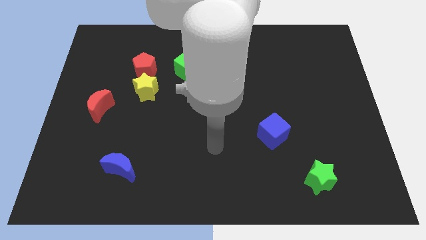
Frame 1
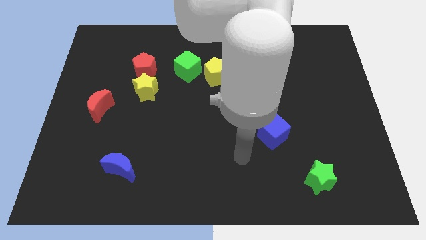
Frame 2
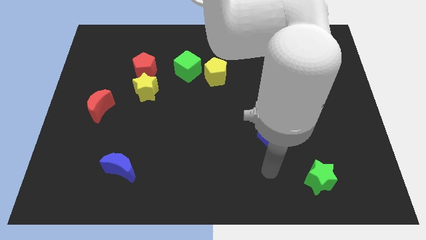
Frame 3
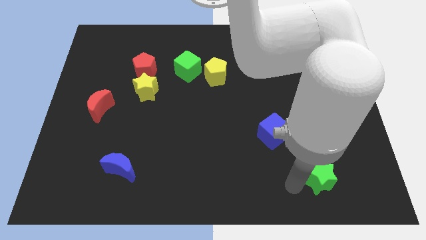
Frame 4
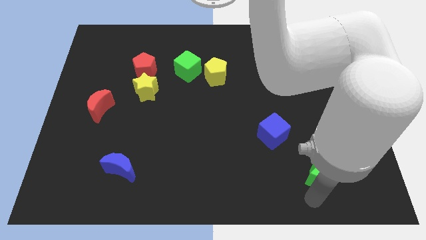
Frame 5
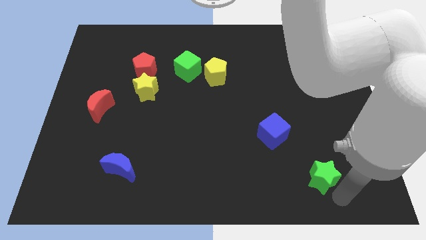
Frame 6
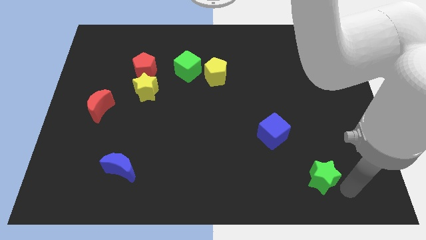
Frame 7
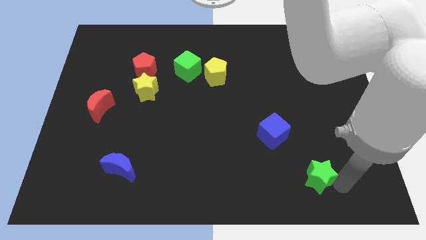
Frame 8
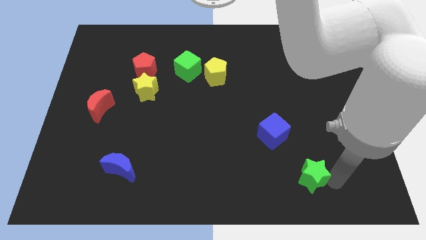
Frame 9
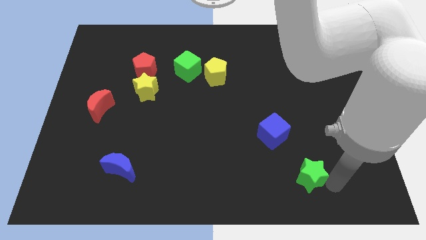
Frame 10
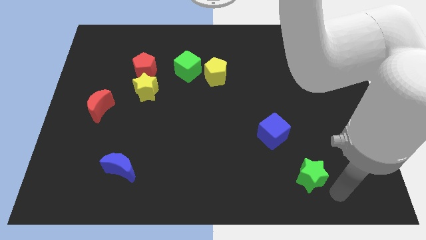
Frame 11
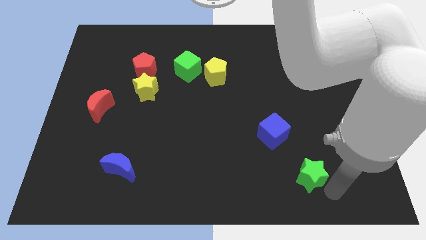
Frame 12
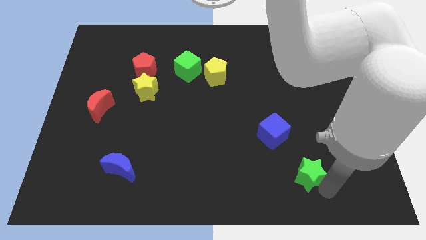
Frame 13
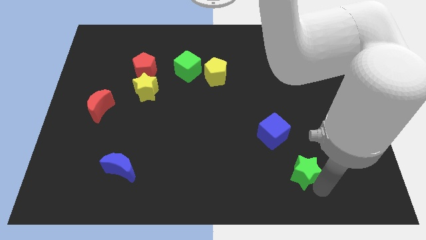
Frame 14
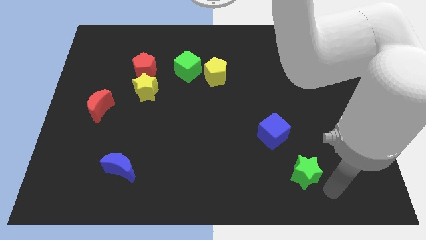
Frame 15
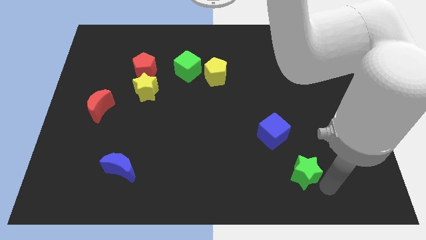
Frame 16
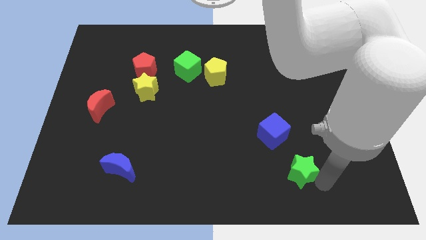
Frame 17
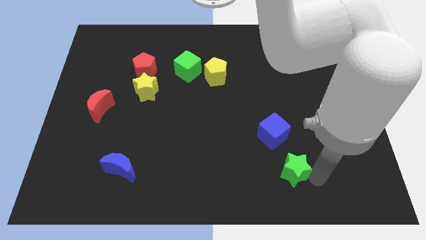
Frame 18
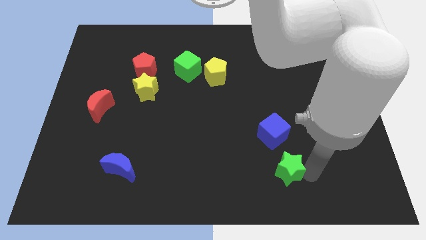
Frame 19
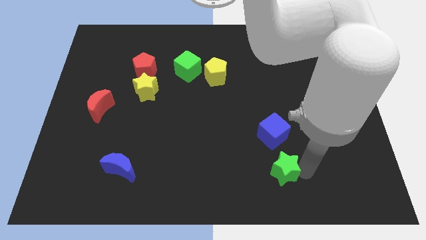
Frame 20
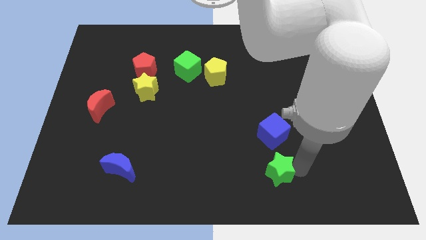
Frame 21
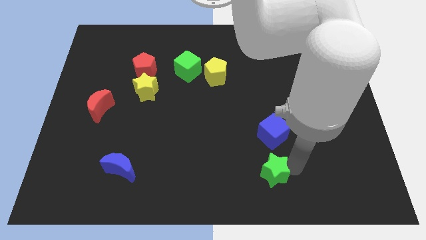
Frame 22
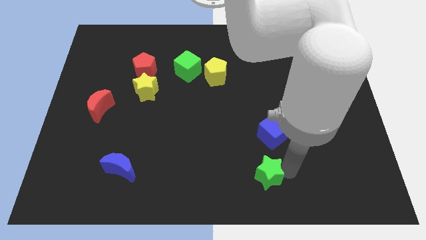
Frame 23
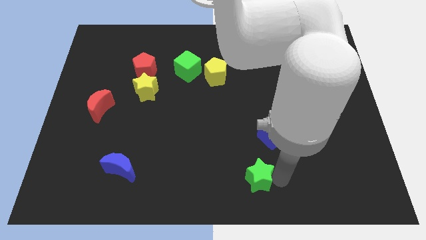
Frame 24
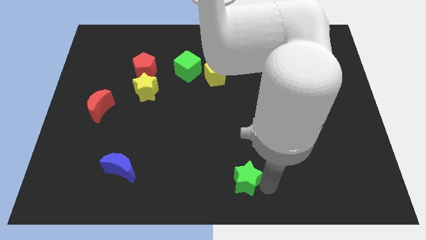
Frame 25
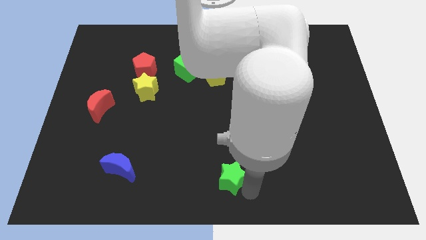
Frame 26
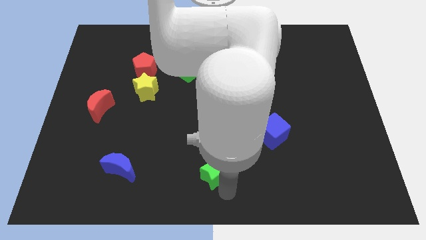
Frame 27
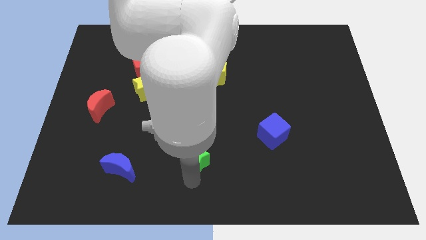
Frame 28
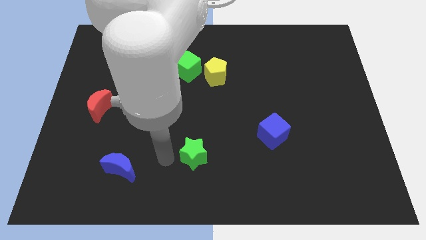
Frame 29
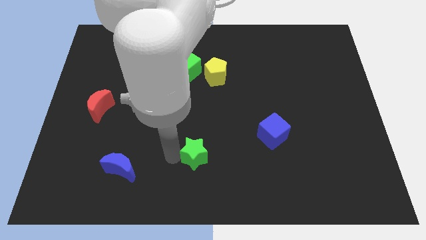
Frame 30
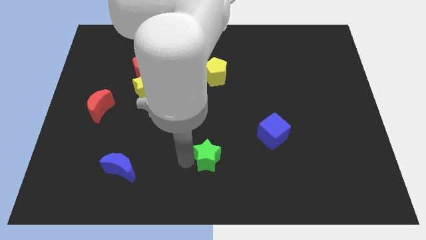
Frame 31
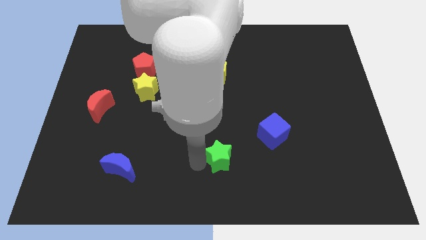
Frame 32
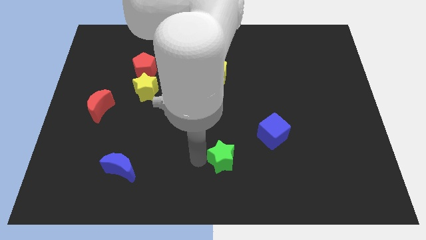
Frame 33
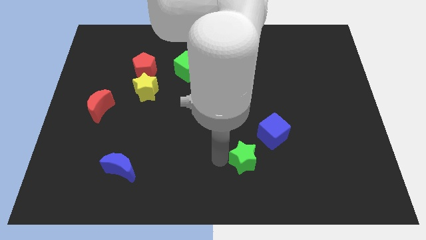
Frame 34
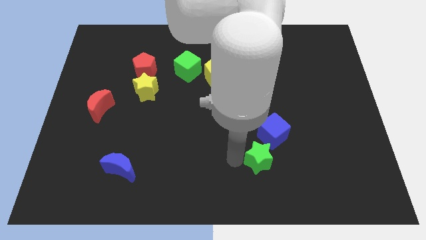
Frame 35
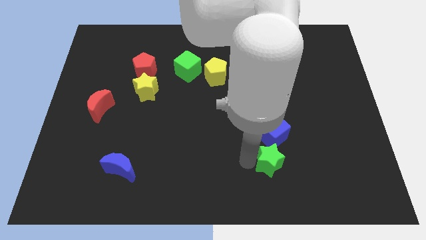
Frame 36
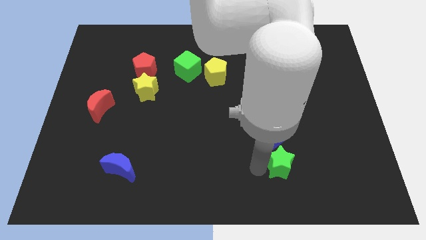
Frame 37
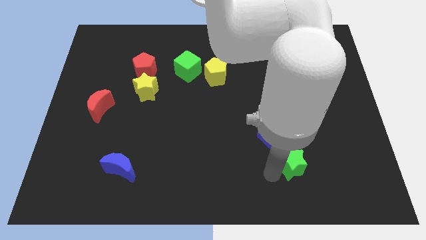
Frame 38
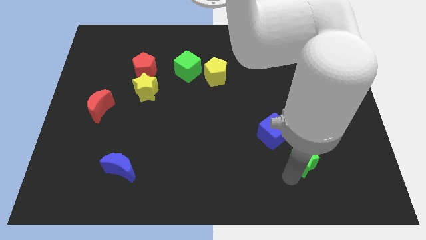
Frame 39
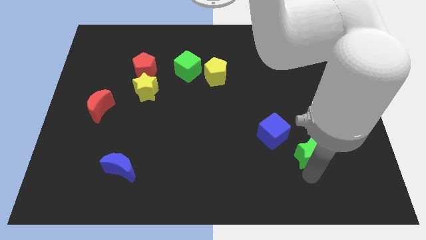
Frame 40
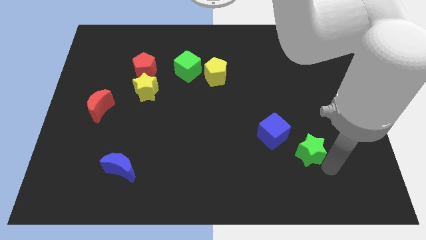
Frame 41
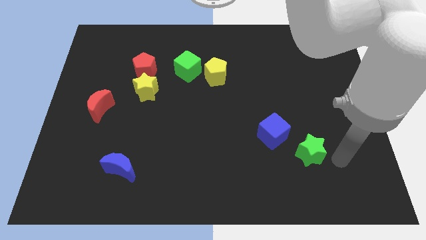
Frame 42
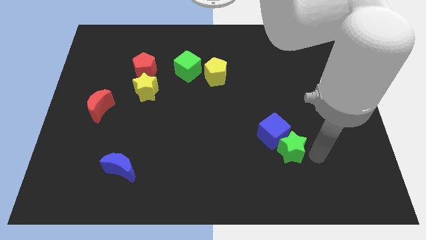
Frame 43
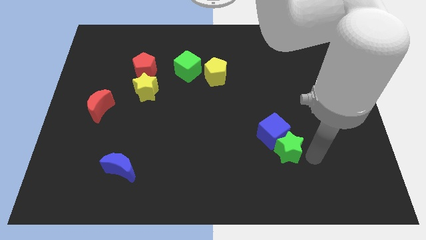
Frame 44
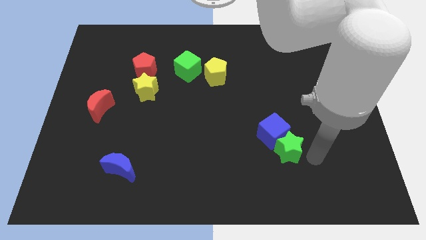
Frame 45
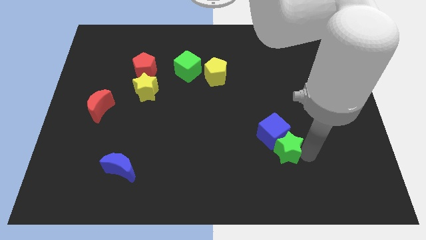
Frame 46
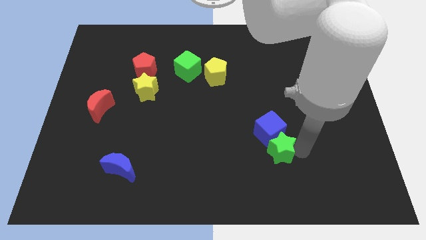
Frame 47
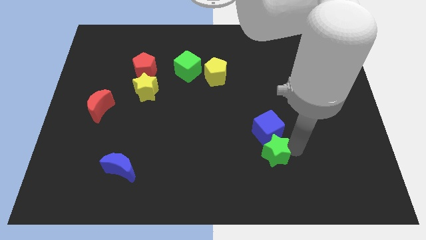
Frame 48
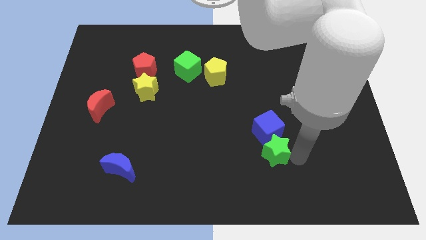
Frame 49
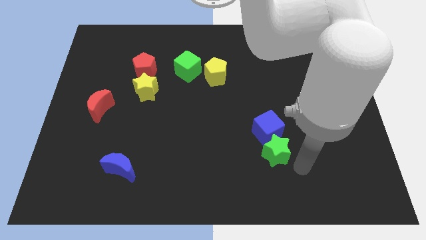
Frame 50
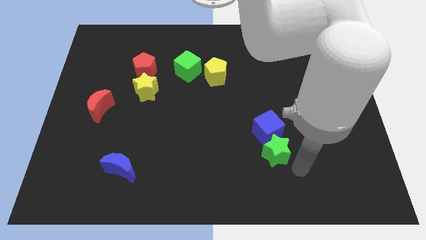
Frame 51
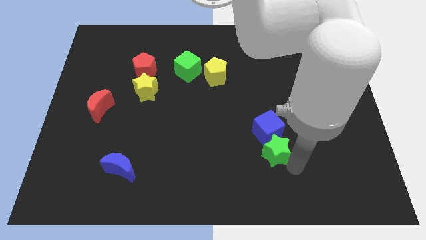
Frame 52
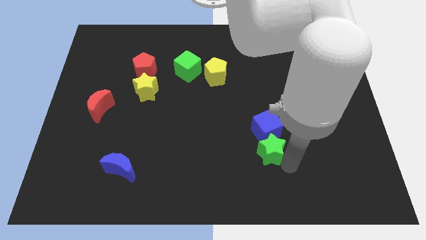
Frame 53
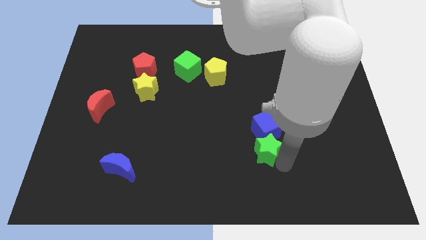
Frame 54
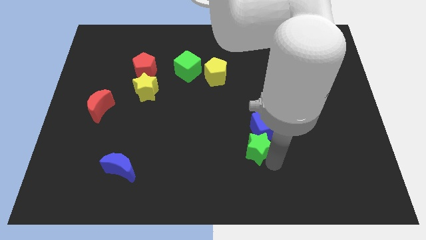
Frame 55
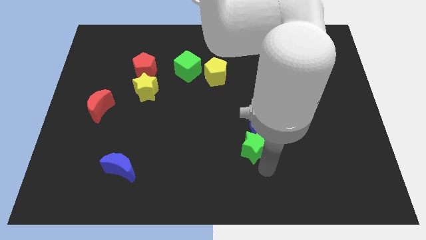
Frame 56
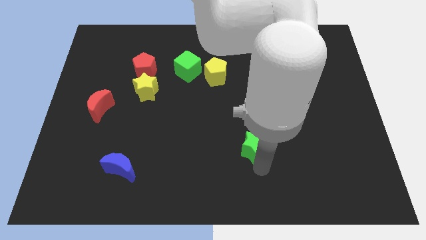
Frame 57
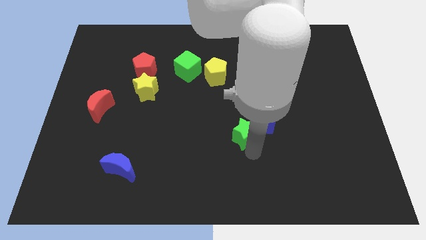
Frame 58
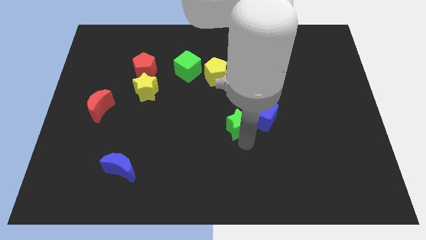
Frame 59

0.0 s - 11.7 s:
slide the green star up and then to the left

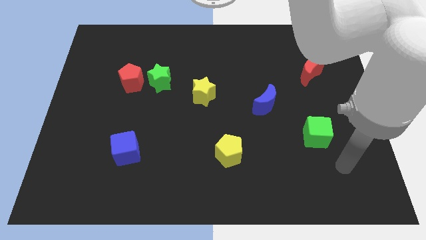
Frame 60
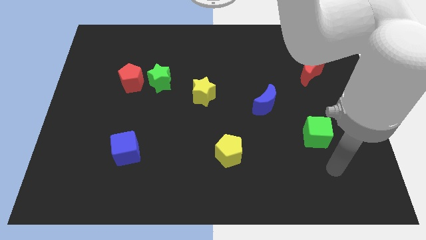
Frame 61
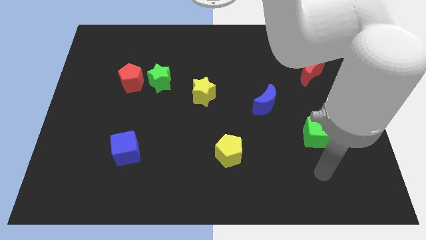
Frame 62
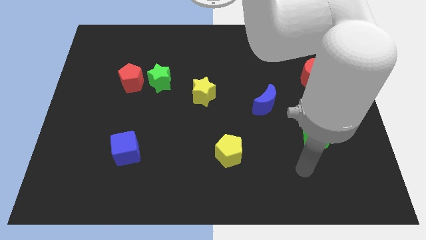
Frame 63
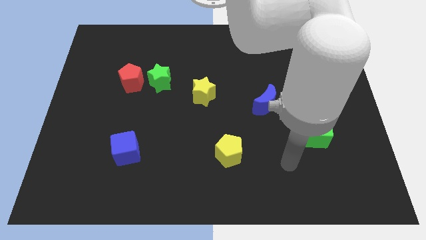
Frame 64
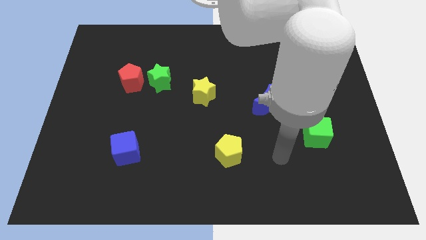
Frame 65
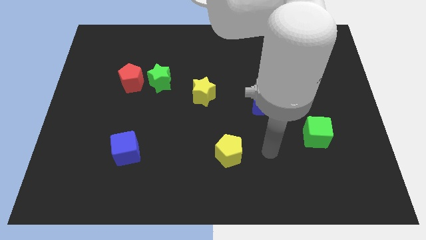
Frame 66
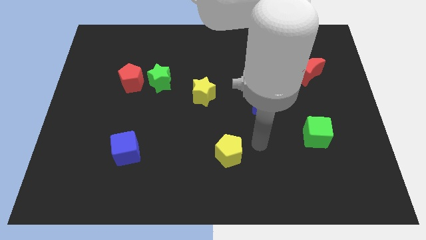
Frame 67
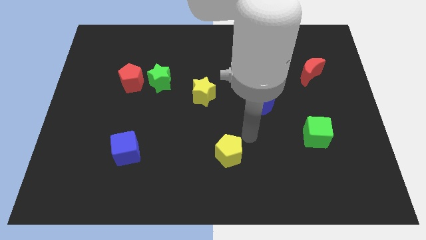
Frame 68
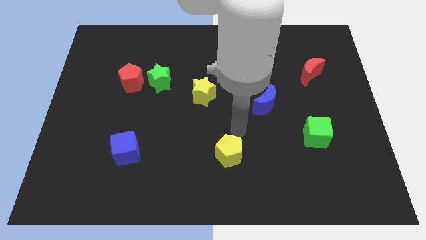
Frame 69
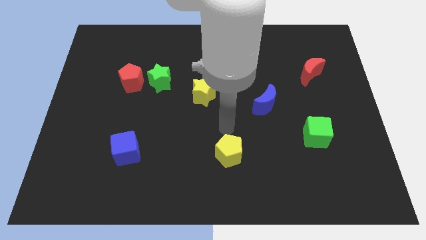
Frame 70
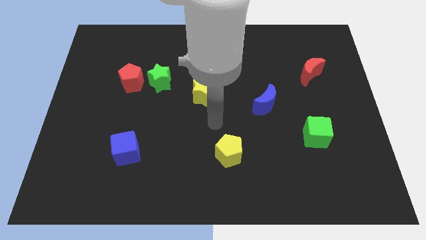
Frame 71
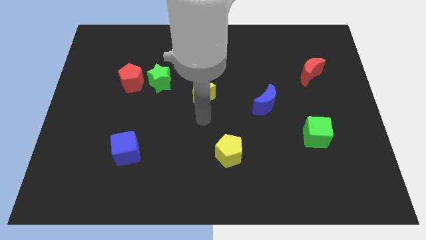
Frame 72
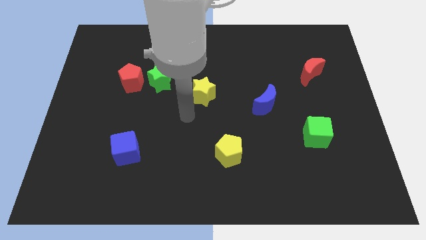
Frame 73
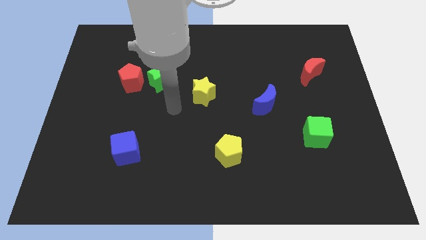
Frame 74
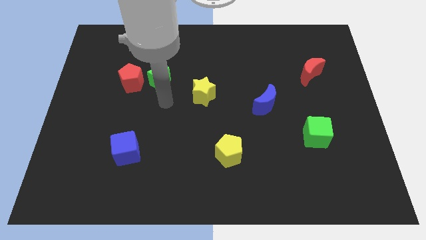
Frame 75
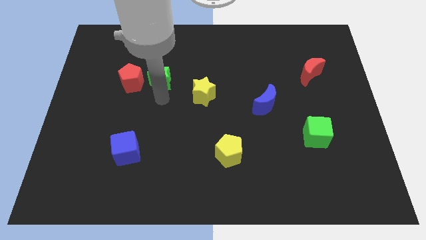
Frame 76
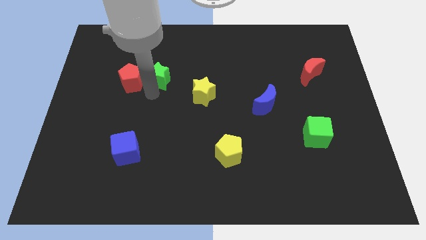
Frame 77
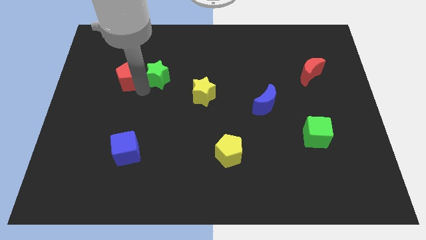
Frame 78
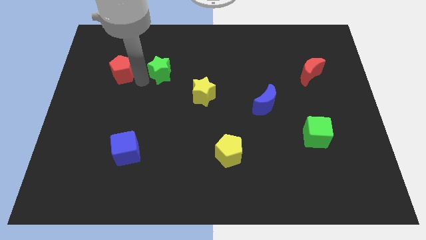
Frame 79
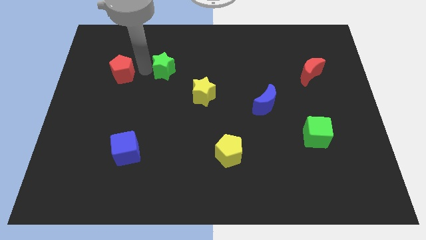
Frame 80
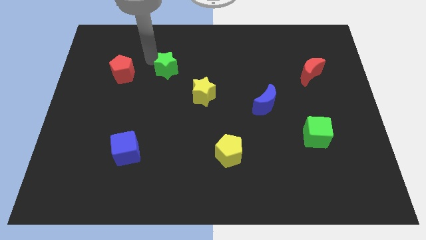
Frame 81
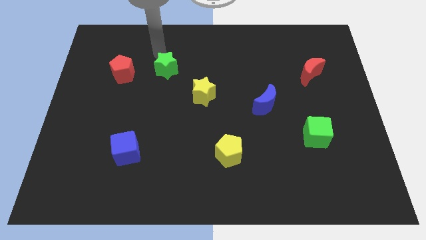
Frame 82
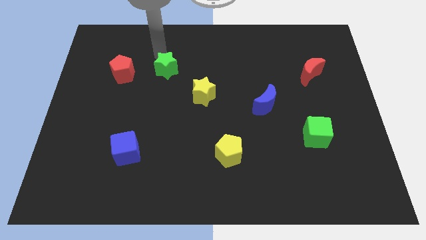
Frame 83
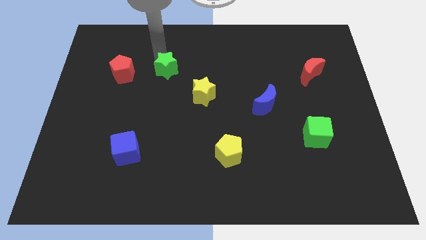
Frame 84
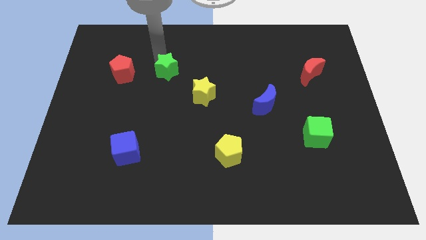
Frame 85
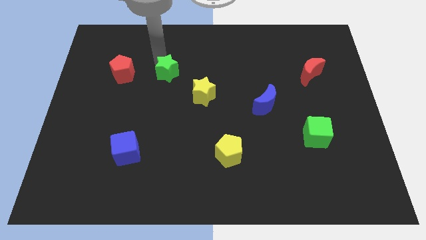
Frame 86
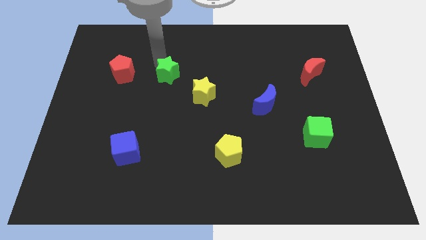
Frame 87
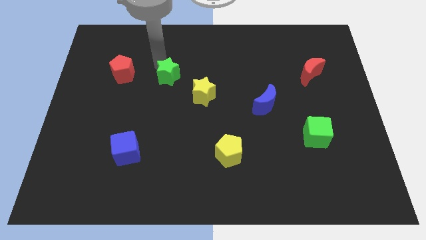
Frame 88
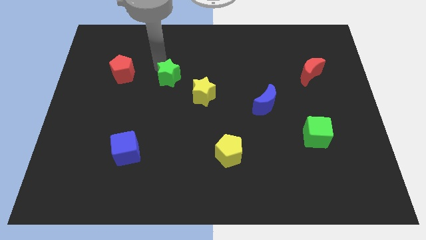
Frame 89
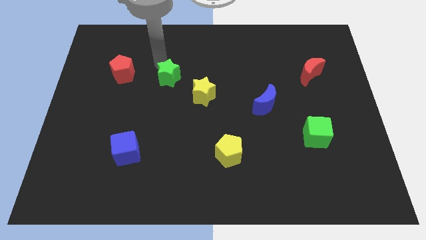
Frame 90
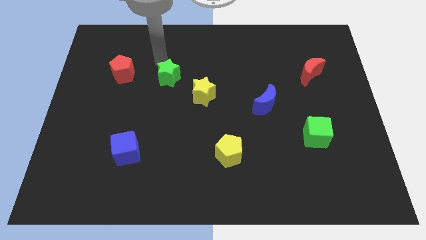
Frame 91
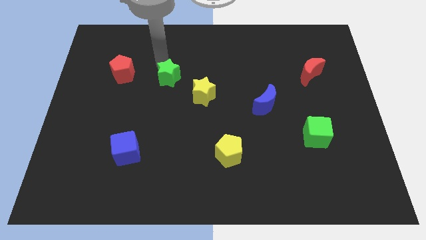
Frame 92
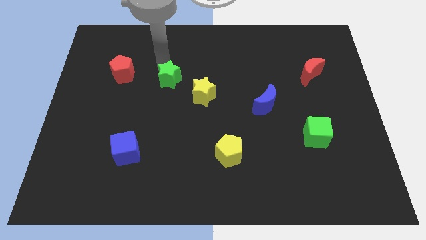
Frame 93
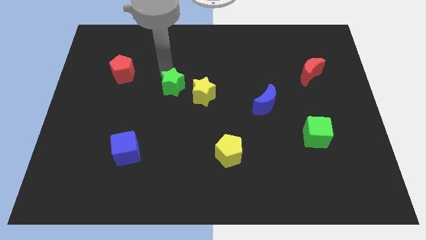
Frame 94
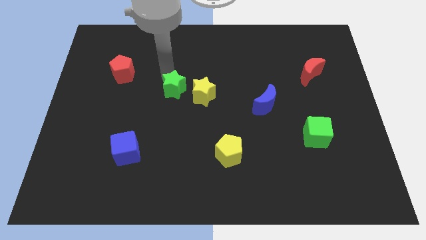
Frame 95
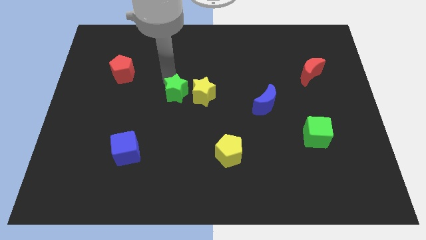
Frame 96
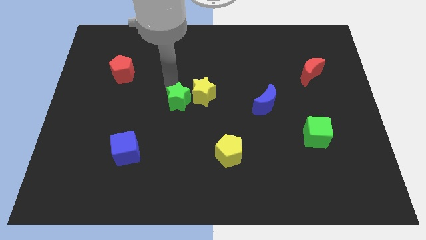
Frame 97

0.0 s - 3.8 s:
move the green star downwards and to the right a bit
